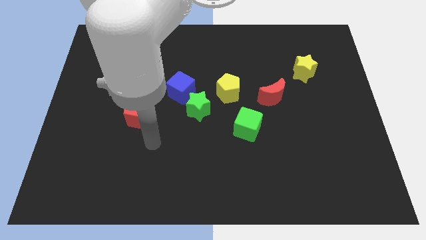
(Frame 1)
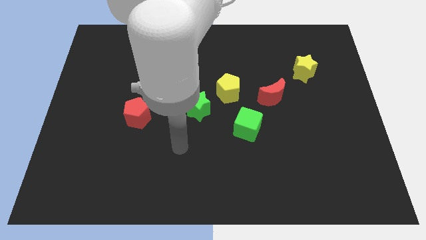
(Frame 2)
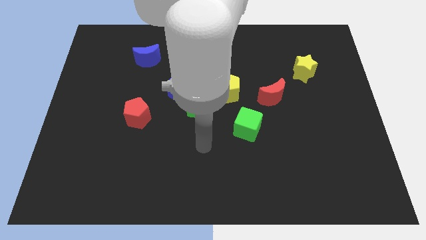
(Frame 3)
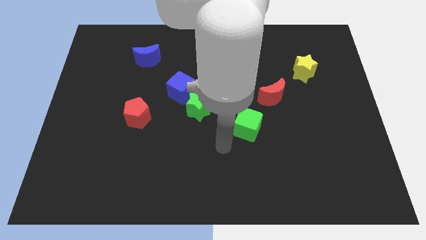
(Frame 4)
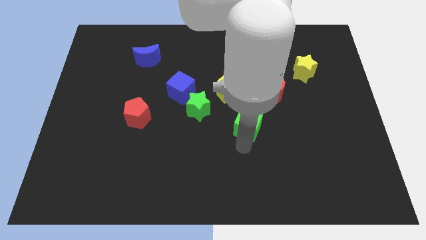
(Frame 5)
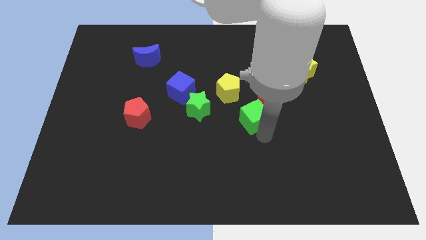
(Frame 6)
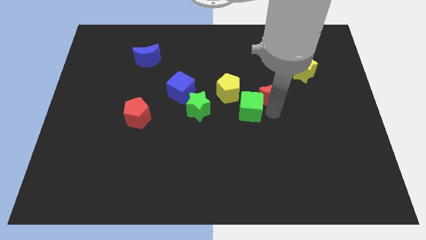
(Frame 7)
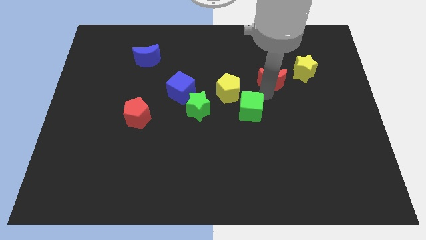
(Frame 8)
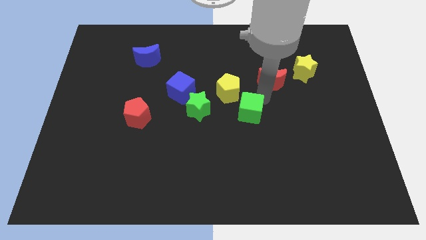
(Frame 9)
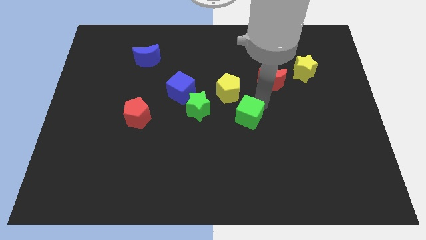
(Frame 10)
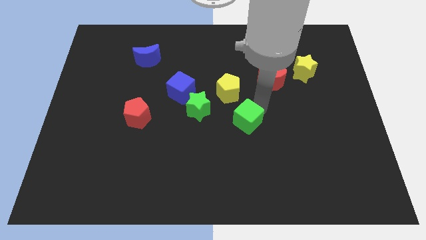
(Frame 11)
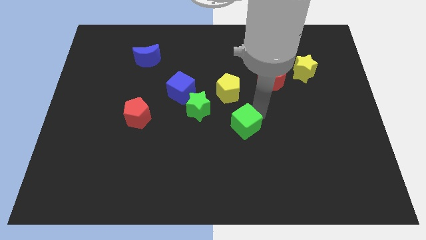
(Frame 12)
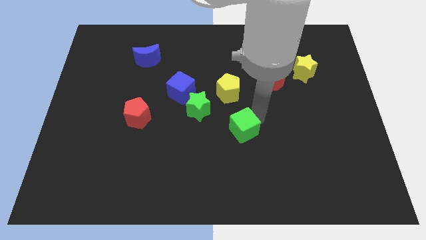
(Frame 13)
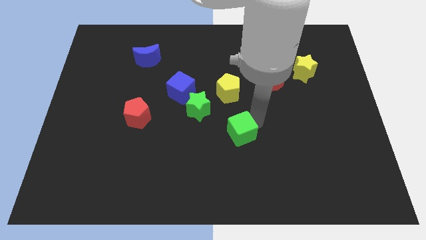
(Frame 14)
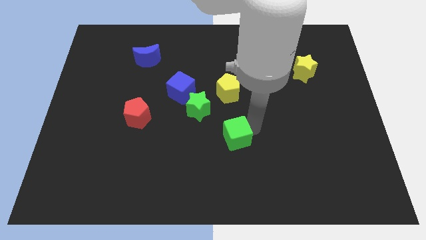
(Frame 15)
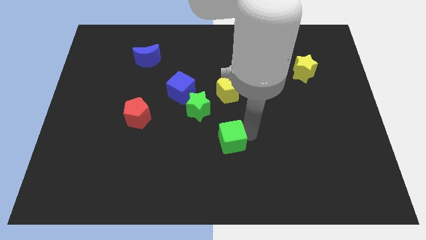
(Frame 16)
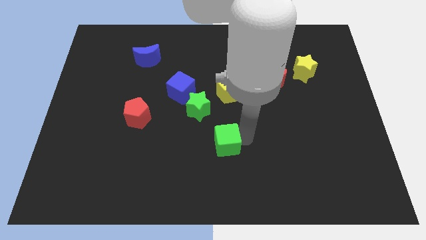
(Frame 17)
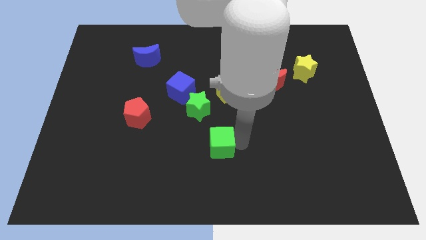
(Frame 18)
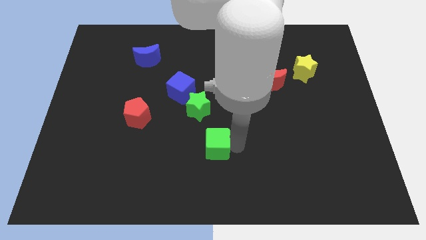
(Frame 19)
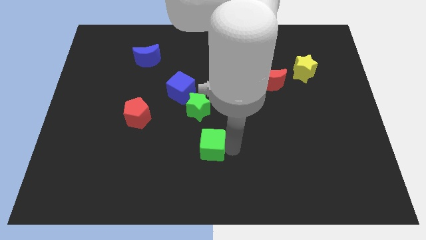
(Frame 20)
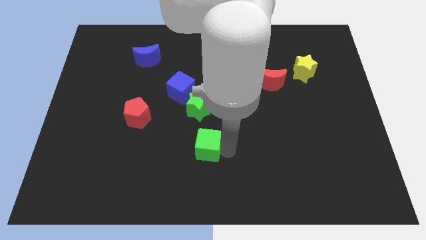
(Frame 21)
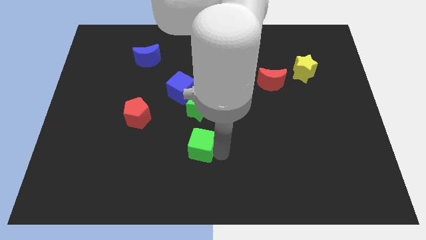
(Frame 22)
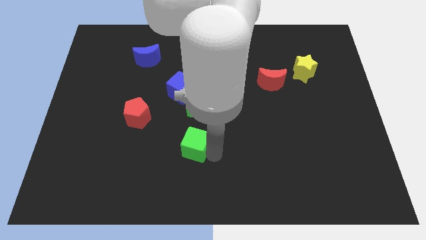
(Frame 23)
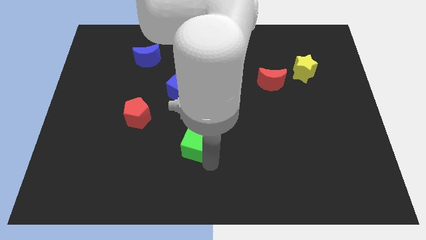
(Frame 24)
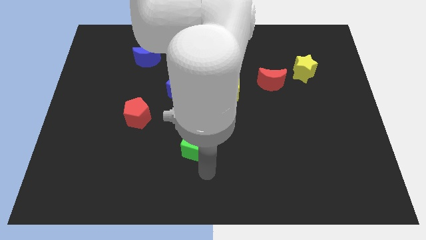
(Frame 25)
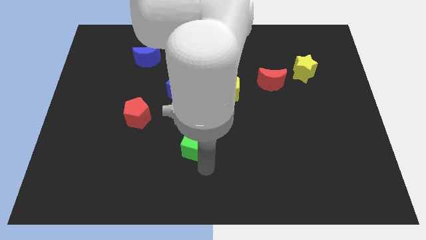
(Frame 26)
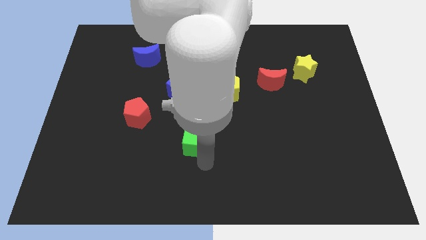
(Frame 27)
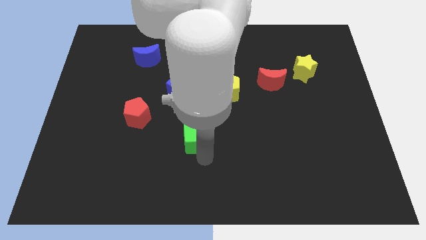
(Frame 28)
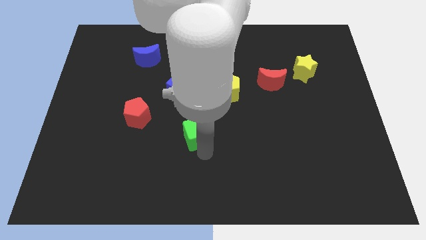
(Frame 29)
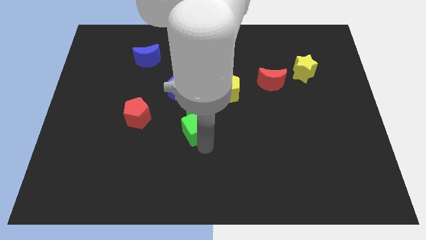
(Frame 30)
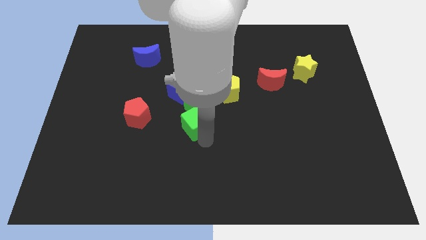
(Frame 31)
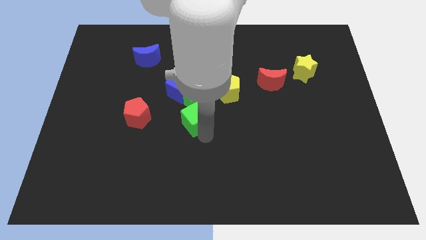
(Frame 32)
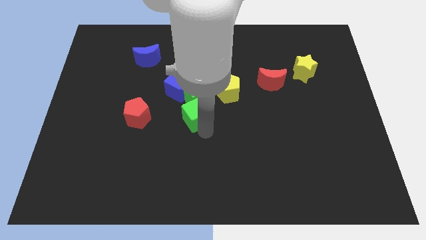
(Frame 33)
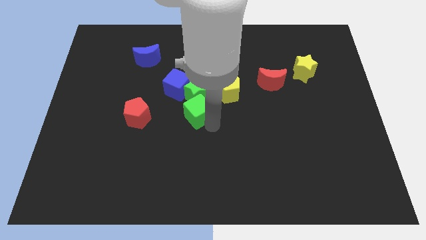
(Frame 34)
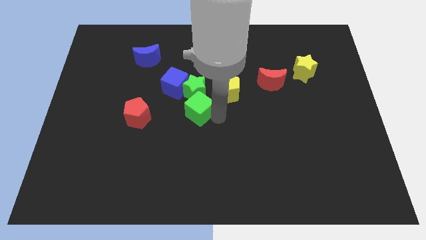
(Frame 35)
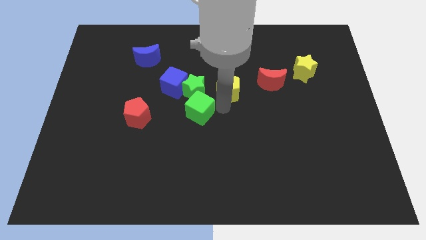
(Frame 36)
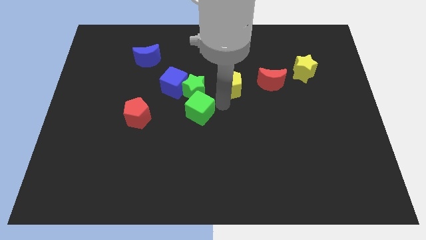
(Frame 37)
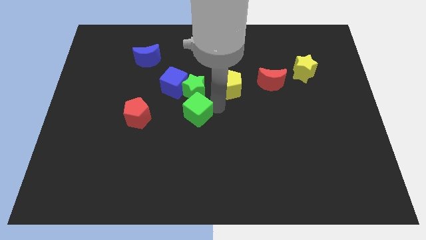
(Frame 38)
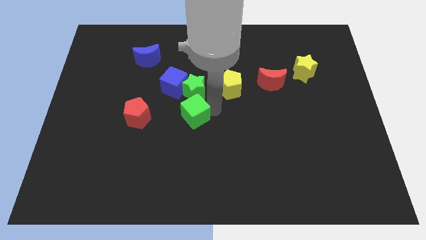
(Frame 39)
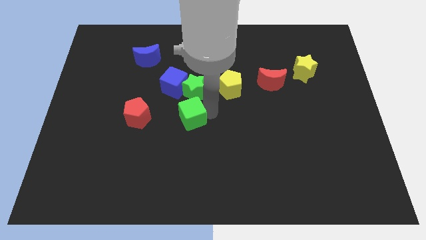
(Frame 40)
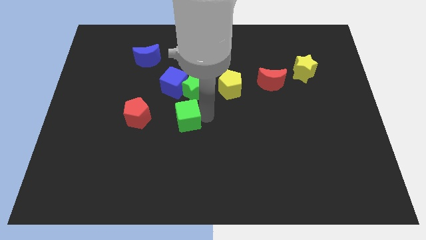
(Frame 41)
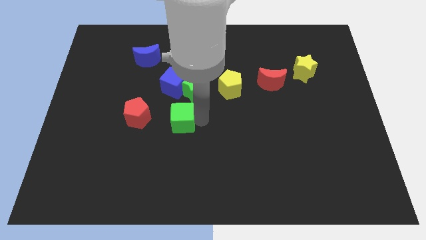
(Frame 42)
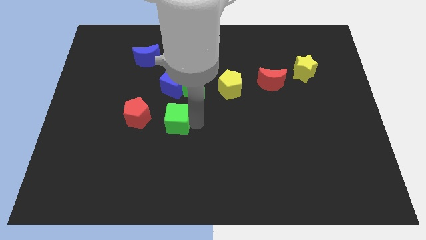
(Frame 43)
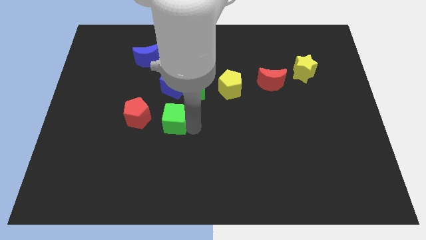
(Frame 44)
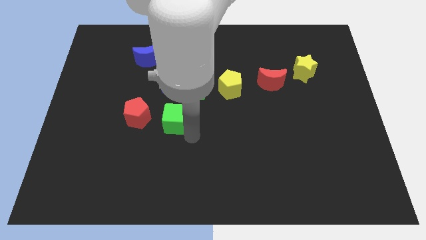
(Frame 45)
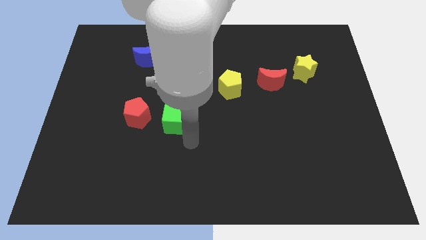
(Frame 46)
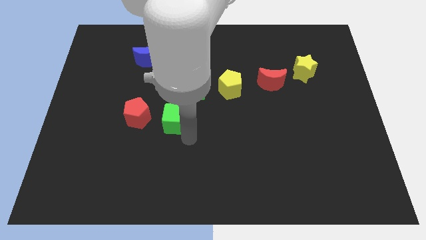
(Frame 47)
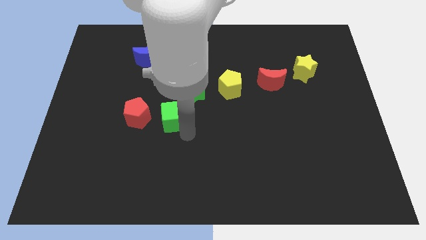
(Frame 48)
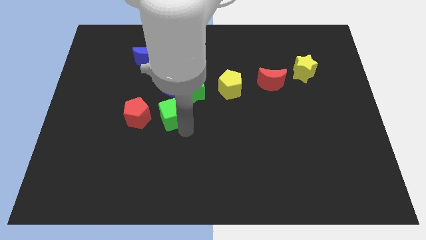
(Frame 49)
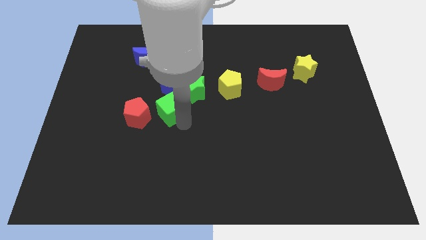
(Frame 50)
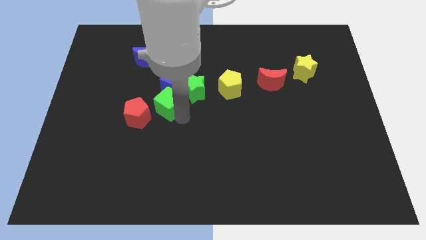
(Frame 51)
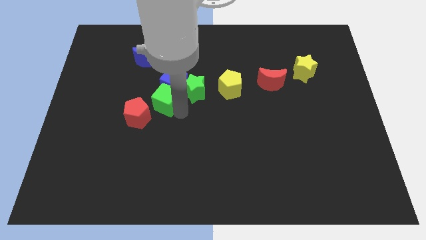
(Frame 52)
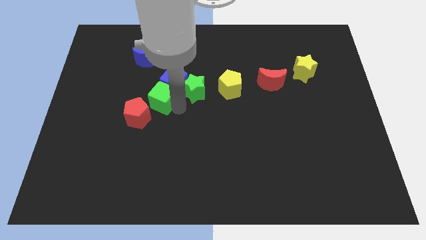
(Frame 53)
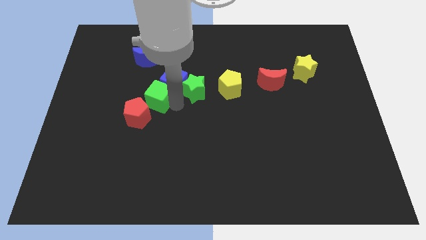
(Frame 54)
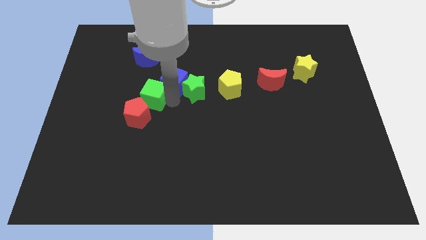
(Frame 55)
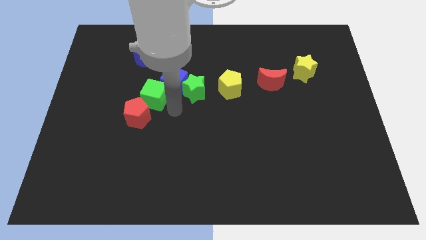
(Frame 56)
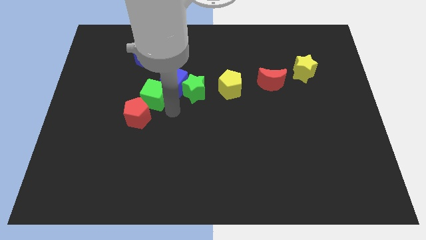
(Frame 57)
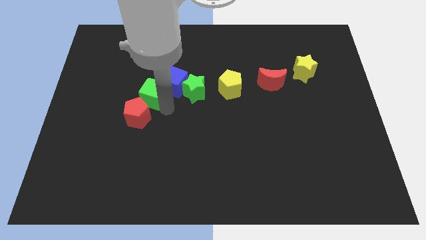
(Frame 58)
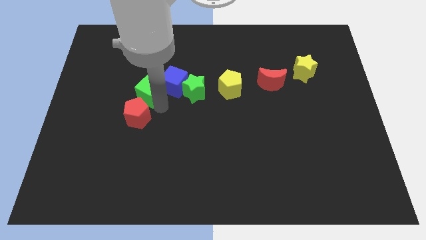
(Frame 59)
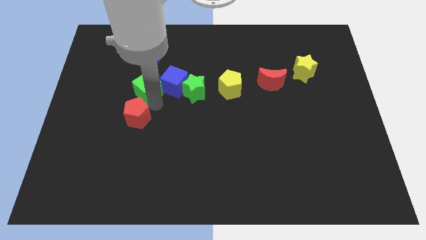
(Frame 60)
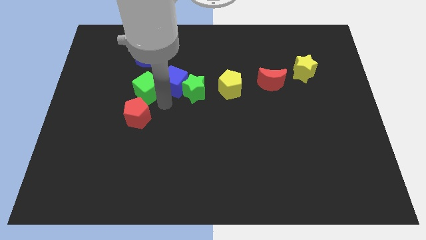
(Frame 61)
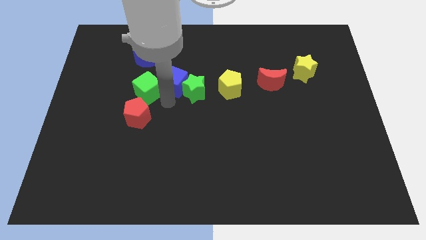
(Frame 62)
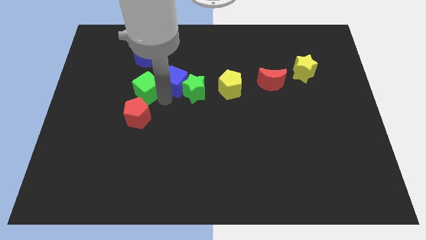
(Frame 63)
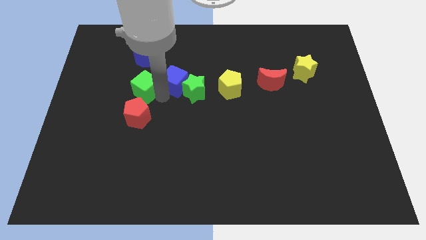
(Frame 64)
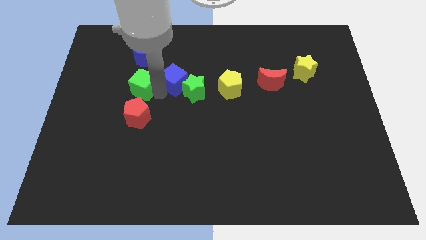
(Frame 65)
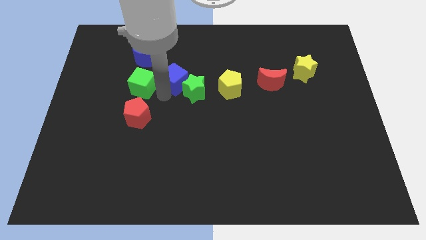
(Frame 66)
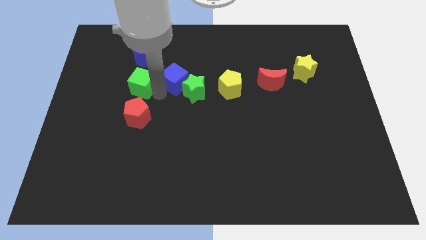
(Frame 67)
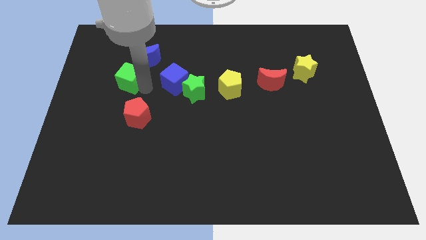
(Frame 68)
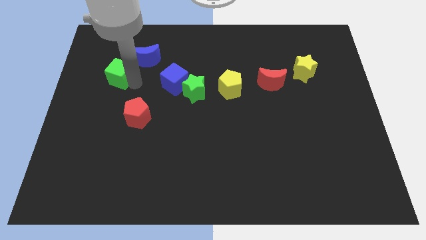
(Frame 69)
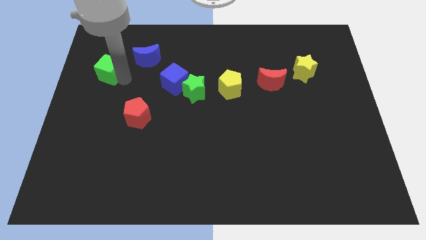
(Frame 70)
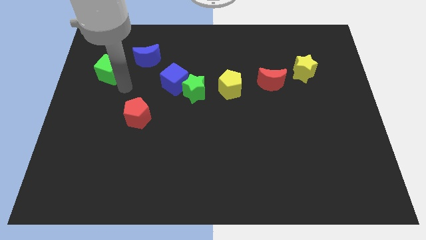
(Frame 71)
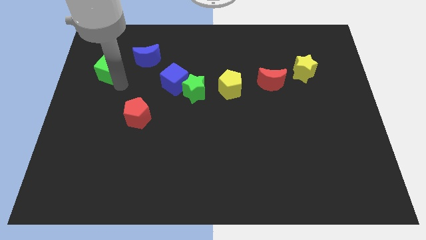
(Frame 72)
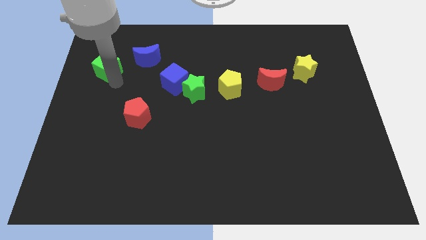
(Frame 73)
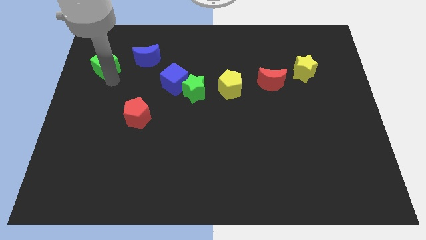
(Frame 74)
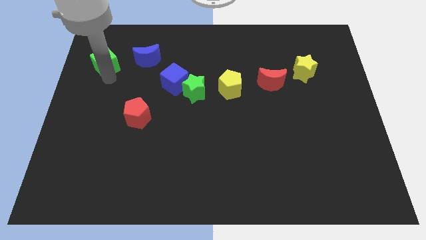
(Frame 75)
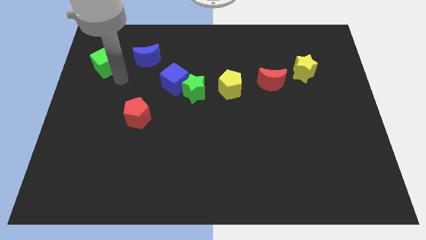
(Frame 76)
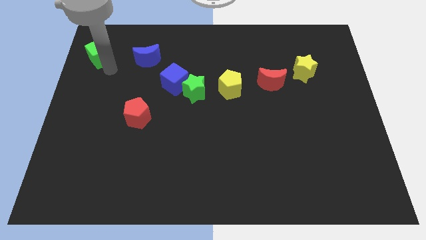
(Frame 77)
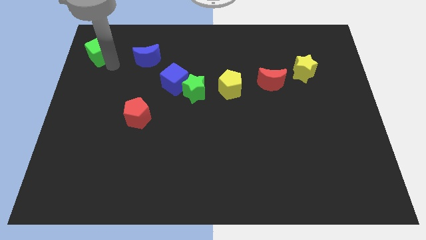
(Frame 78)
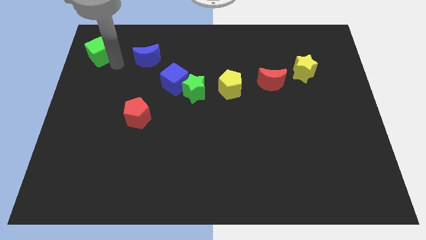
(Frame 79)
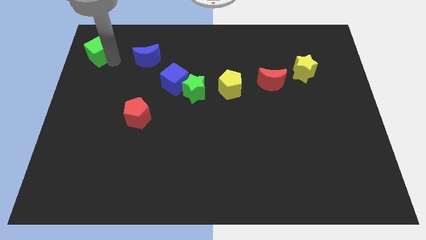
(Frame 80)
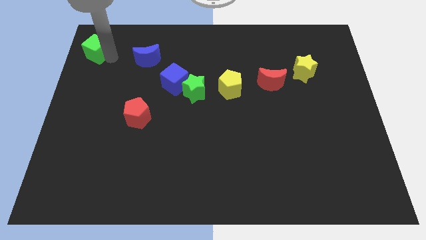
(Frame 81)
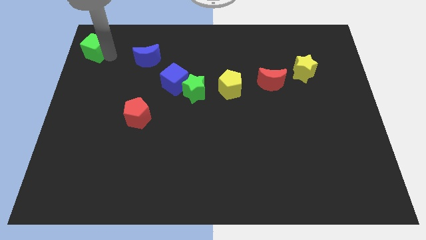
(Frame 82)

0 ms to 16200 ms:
move the green cube to the top left of the board
